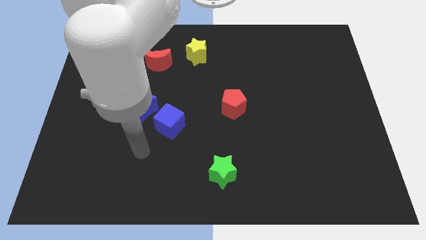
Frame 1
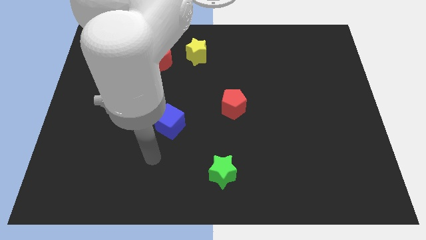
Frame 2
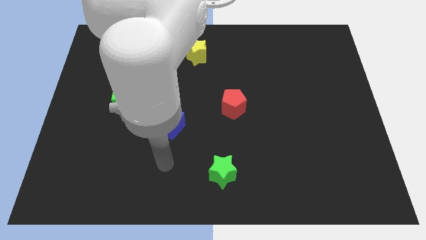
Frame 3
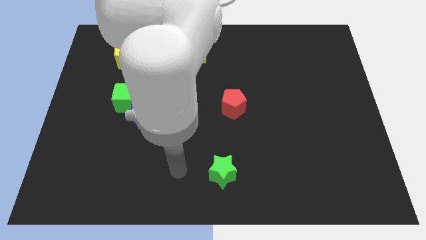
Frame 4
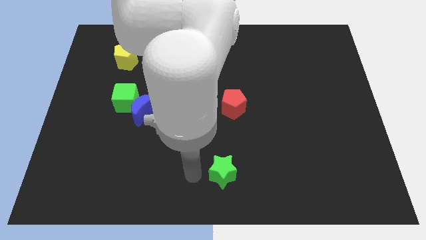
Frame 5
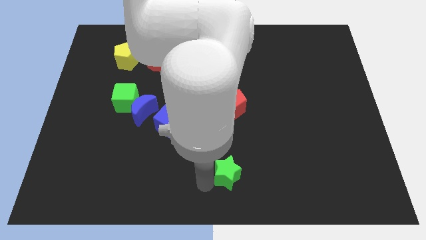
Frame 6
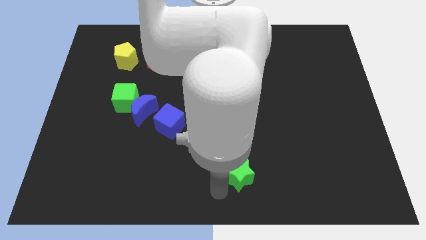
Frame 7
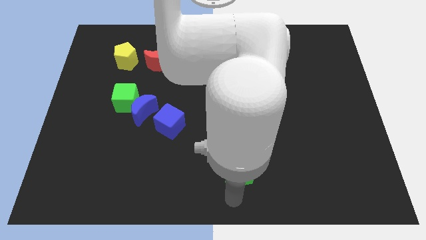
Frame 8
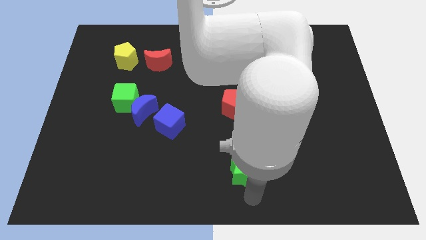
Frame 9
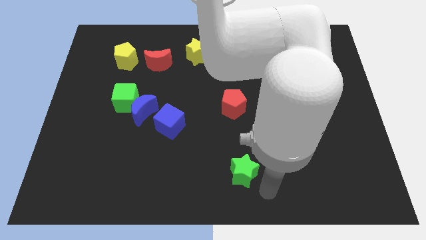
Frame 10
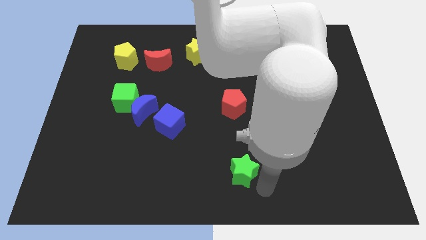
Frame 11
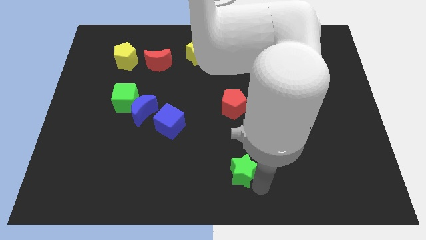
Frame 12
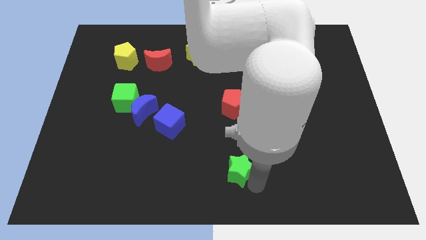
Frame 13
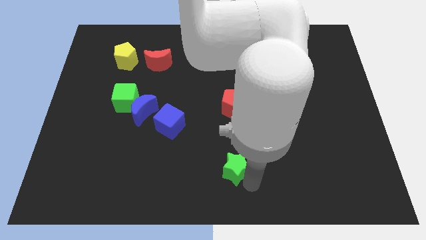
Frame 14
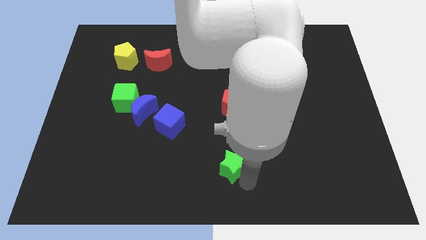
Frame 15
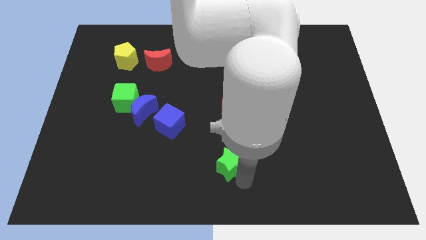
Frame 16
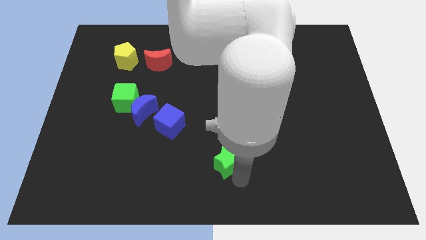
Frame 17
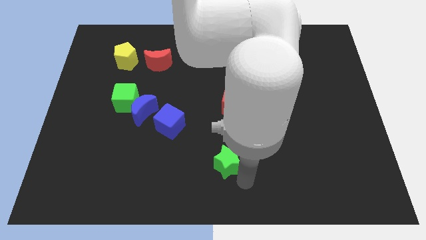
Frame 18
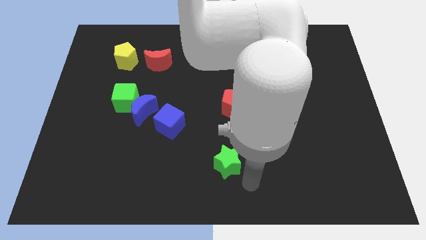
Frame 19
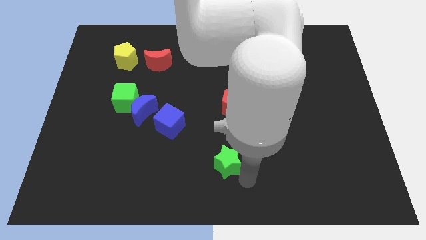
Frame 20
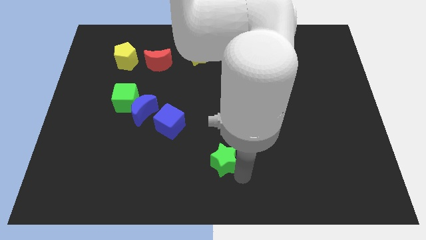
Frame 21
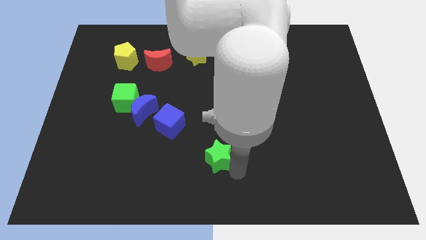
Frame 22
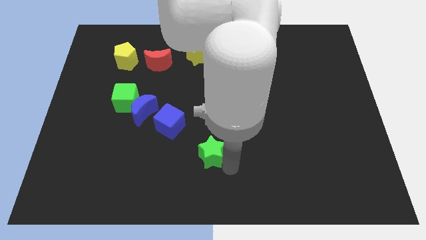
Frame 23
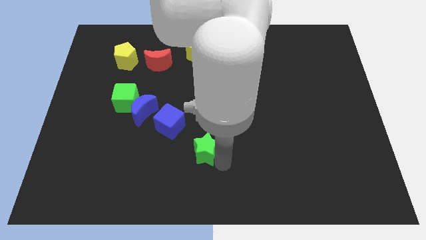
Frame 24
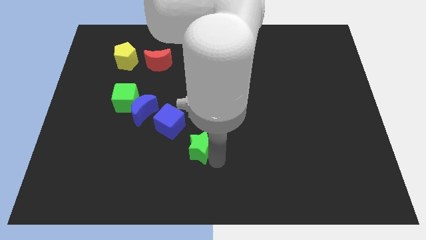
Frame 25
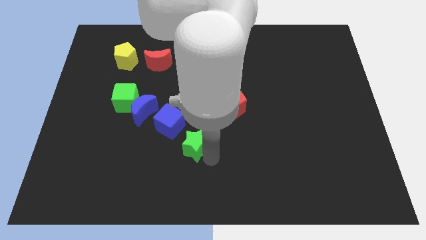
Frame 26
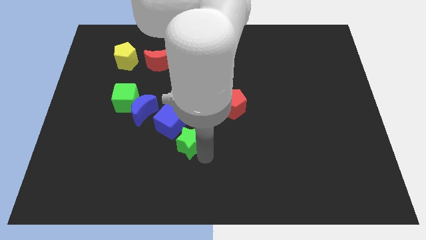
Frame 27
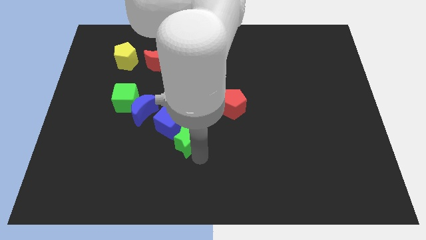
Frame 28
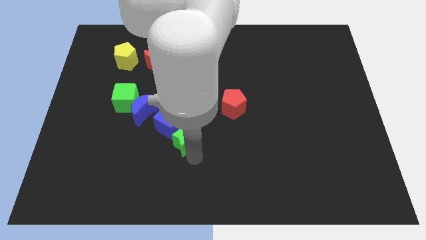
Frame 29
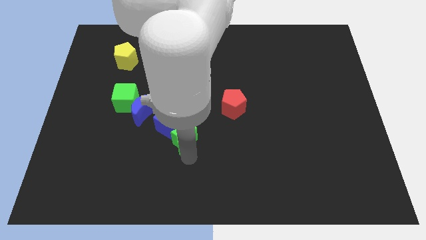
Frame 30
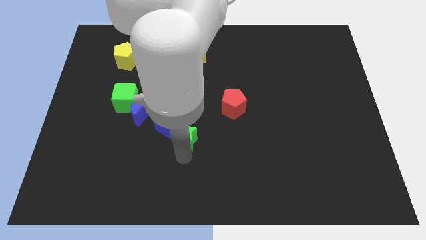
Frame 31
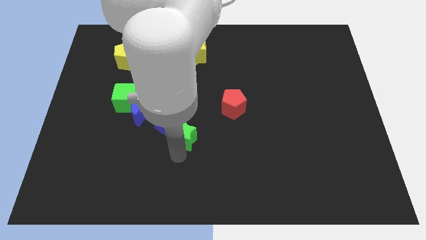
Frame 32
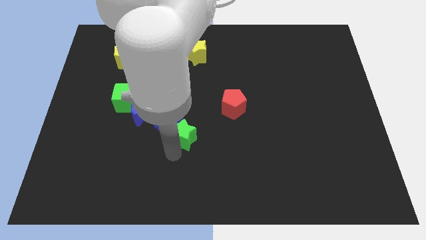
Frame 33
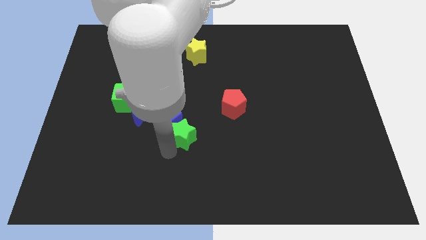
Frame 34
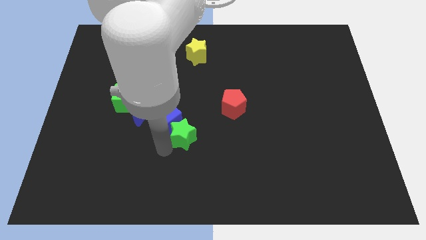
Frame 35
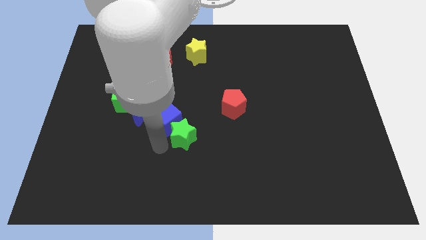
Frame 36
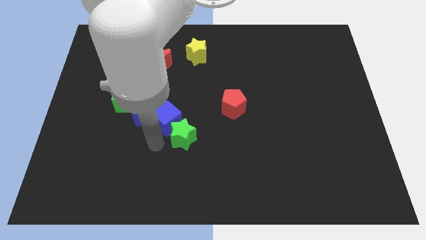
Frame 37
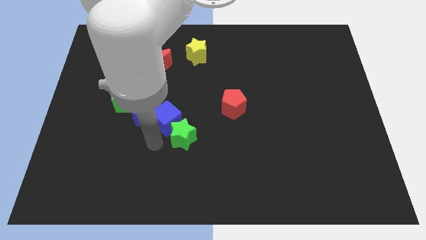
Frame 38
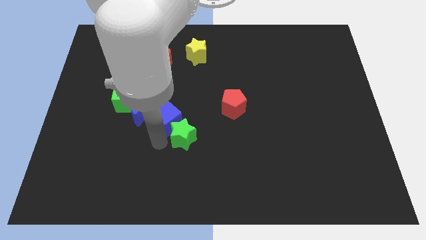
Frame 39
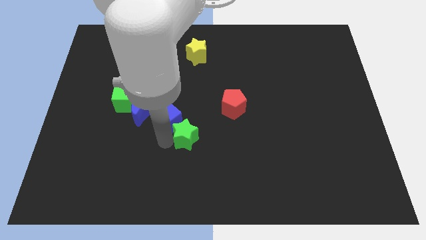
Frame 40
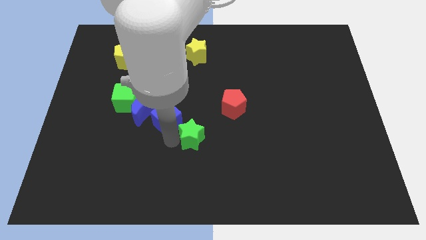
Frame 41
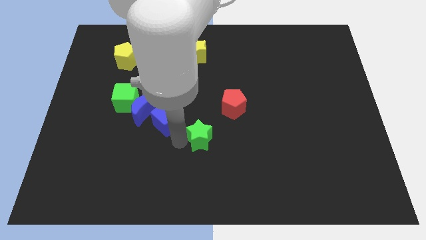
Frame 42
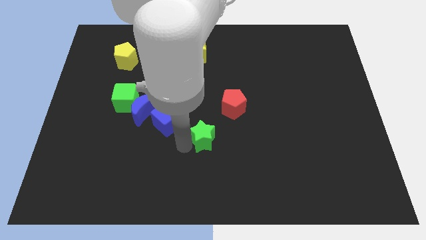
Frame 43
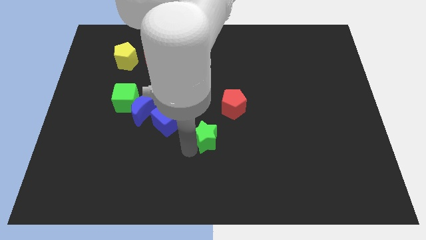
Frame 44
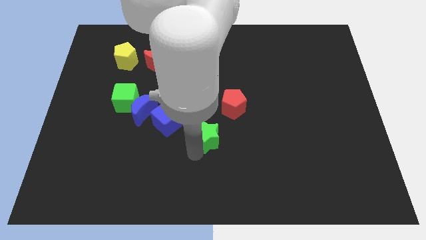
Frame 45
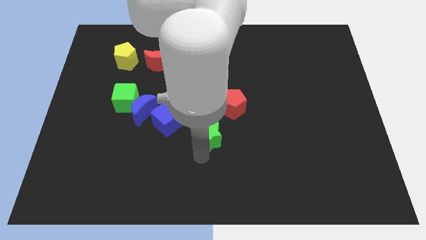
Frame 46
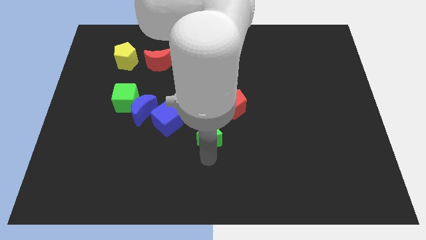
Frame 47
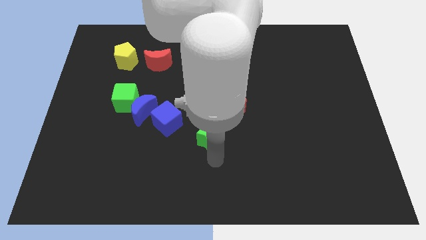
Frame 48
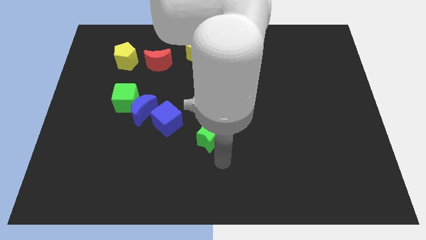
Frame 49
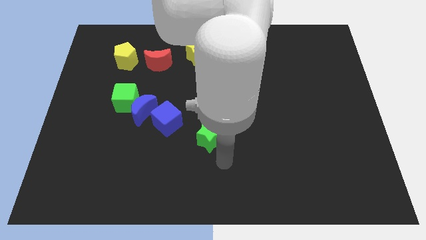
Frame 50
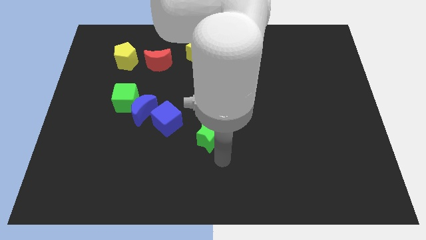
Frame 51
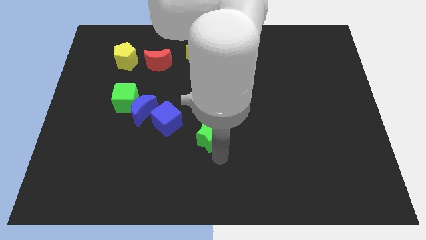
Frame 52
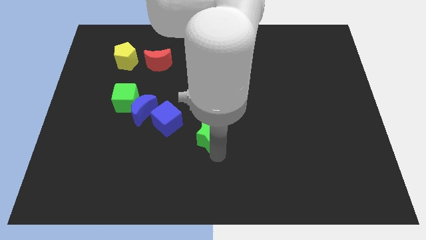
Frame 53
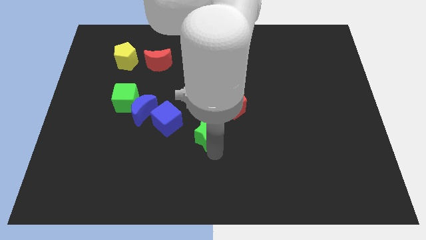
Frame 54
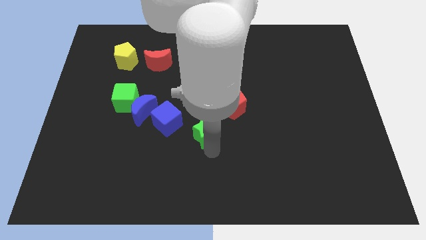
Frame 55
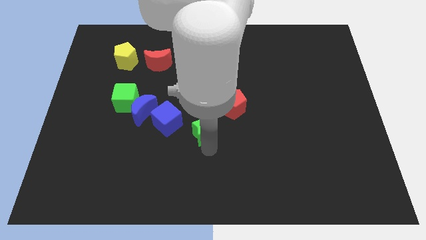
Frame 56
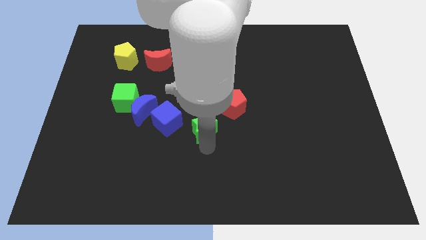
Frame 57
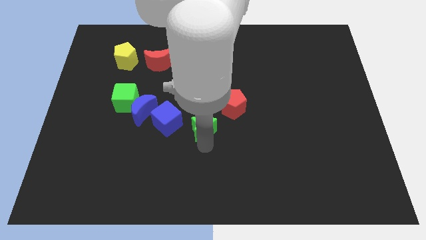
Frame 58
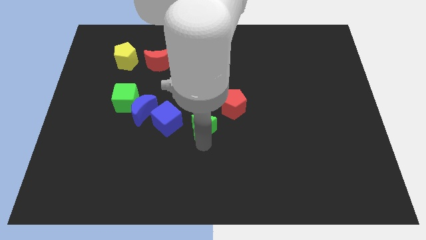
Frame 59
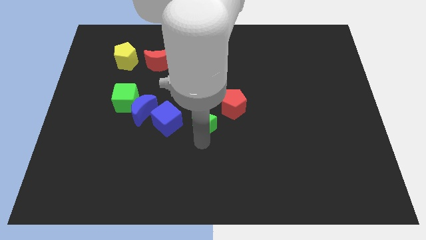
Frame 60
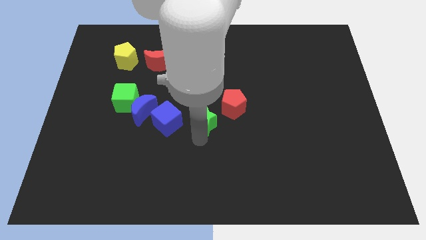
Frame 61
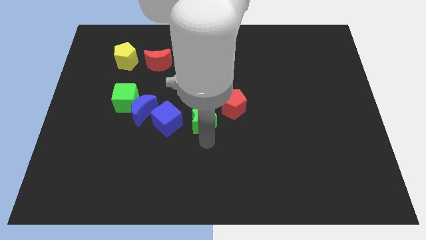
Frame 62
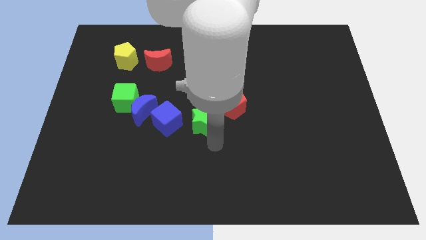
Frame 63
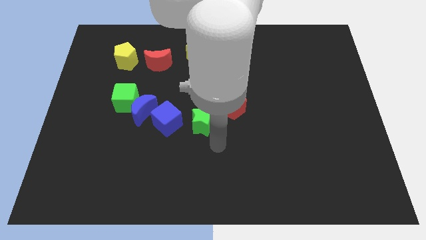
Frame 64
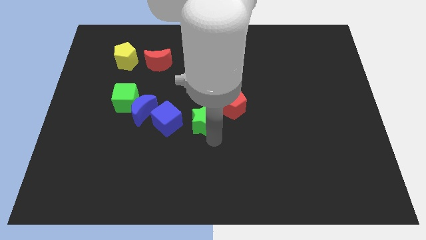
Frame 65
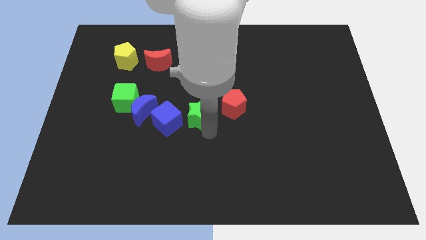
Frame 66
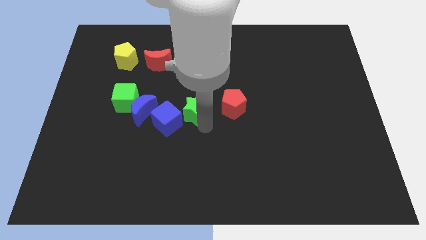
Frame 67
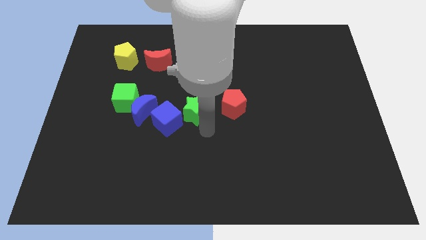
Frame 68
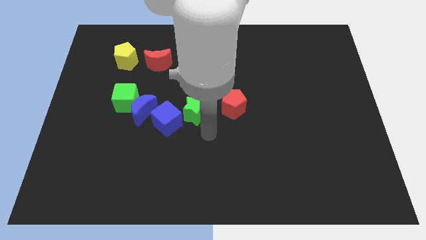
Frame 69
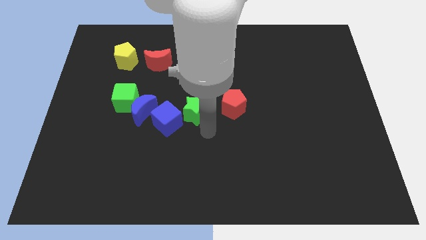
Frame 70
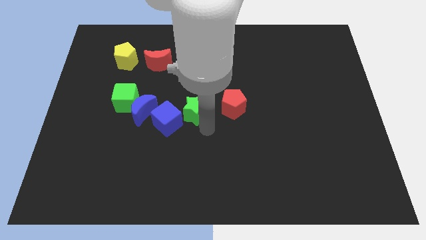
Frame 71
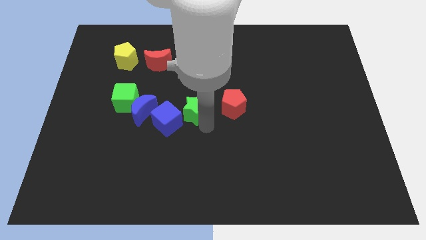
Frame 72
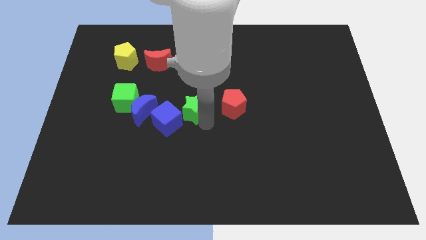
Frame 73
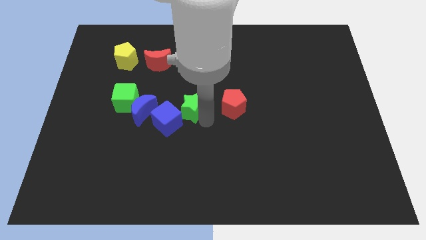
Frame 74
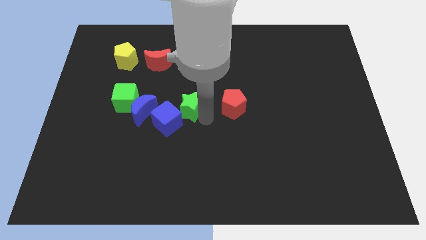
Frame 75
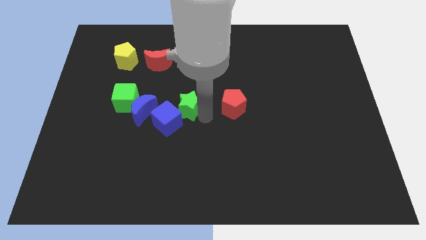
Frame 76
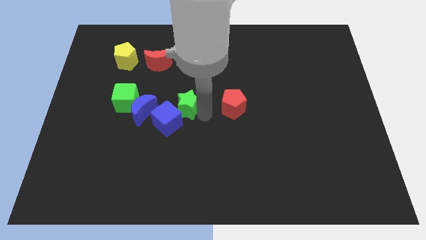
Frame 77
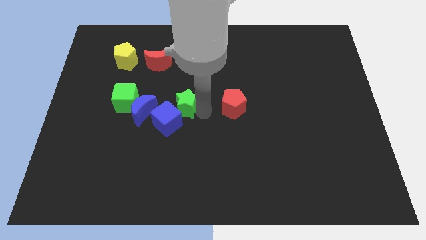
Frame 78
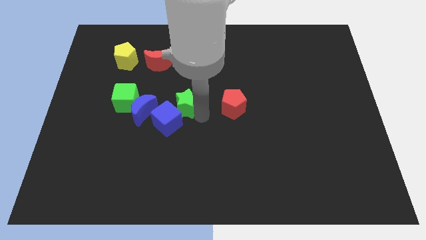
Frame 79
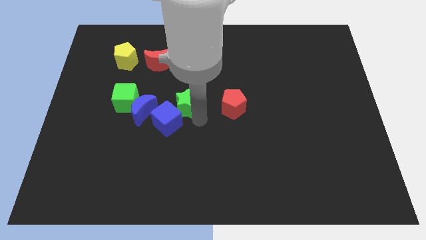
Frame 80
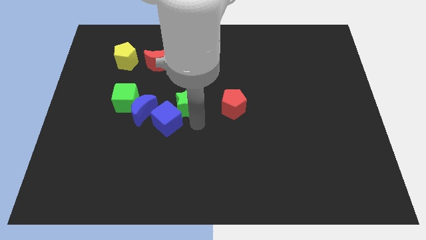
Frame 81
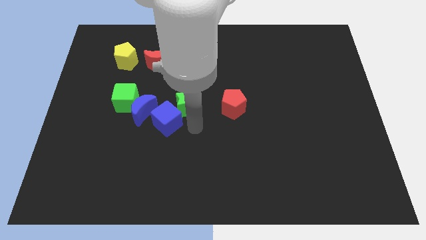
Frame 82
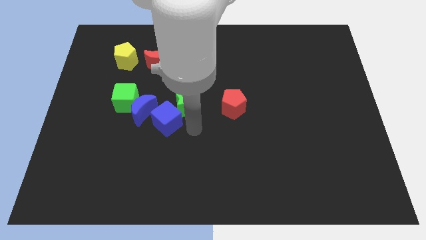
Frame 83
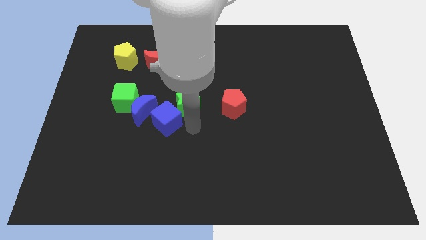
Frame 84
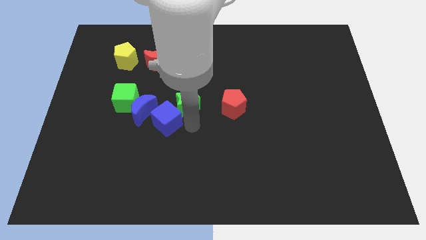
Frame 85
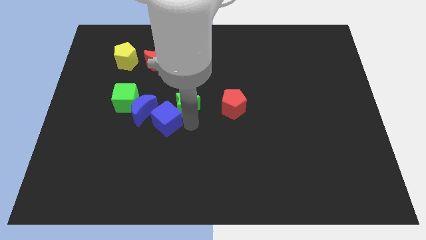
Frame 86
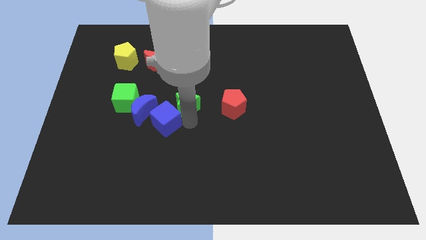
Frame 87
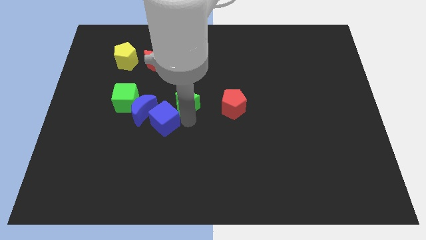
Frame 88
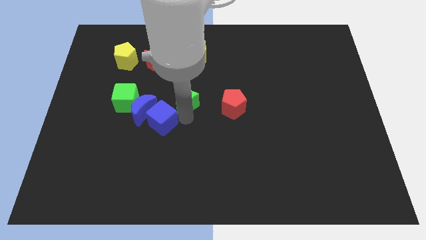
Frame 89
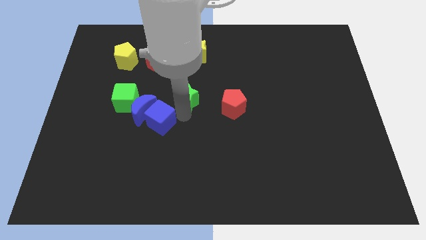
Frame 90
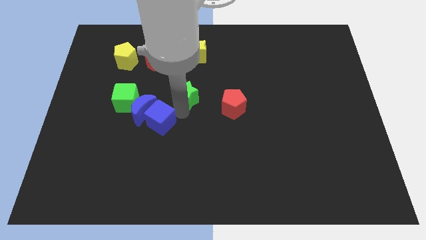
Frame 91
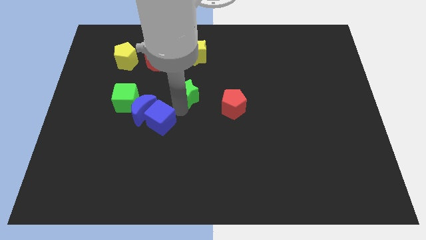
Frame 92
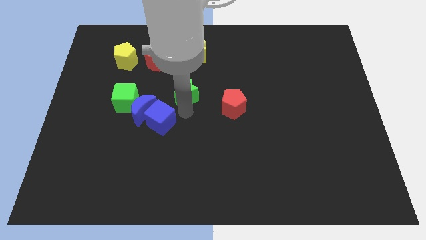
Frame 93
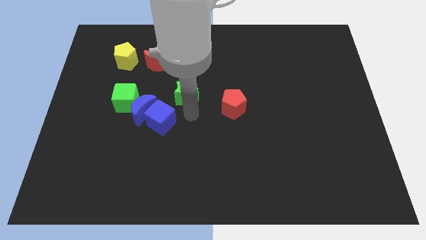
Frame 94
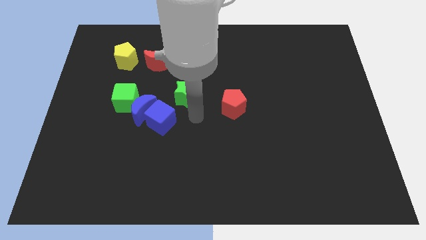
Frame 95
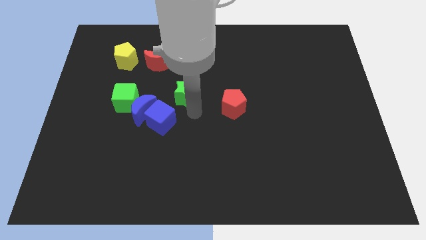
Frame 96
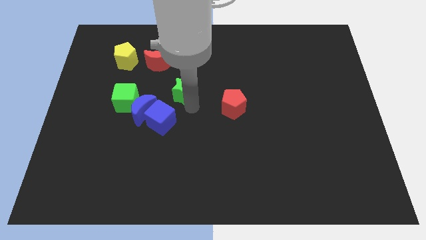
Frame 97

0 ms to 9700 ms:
move the green star to the bottom right of the red moon
